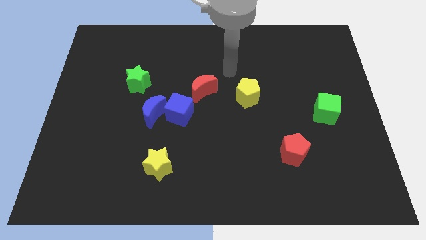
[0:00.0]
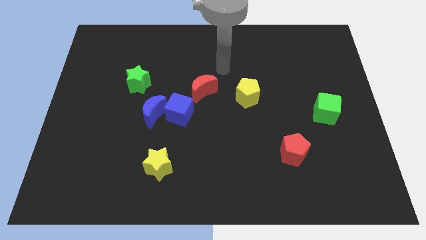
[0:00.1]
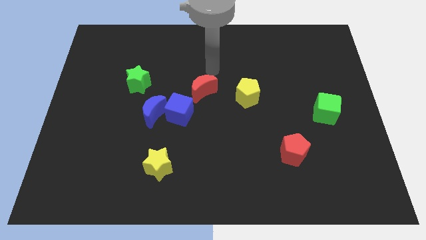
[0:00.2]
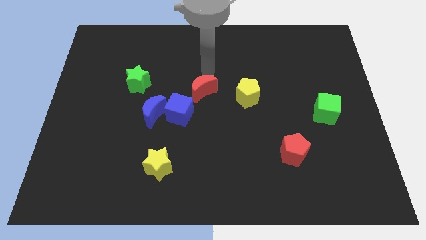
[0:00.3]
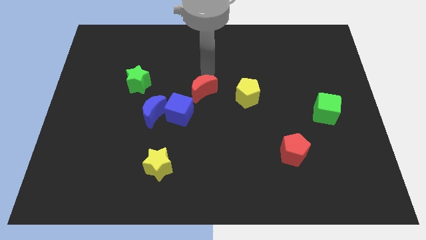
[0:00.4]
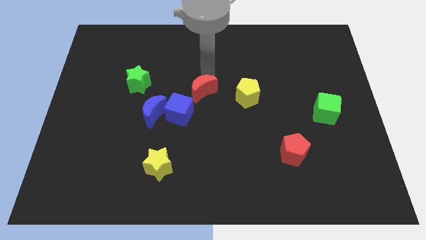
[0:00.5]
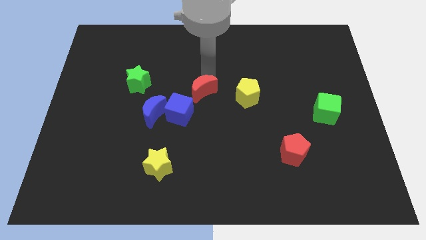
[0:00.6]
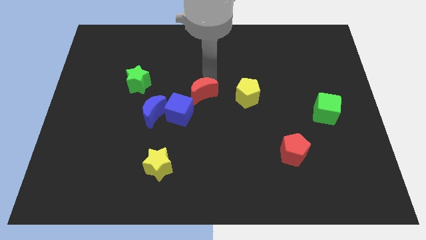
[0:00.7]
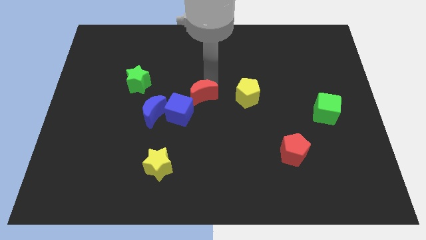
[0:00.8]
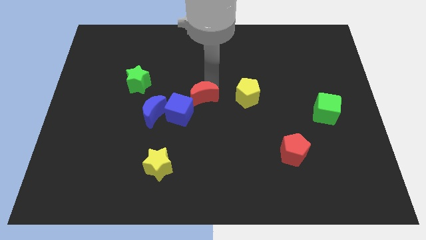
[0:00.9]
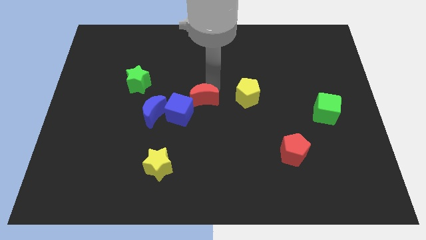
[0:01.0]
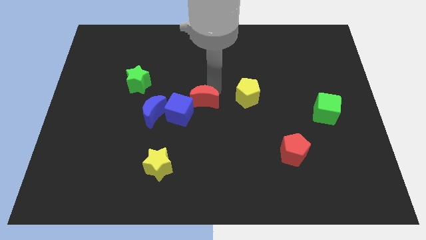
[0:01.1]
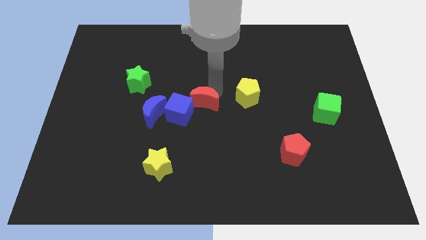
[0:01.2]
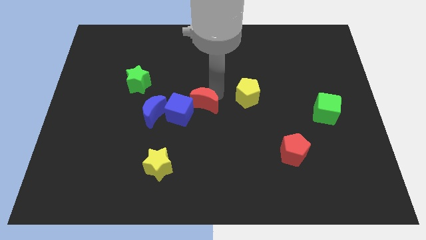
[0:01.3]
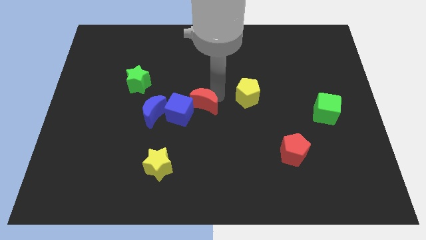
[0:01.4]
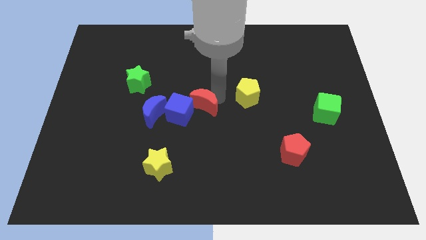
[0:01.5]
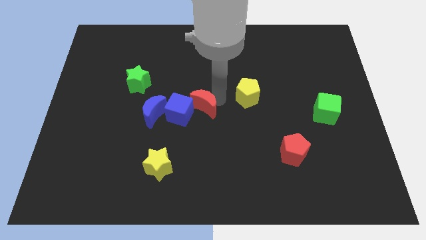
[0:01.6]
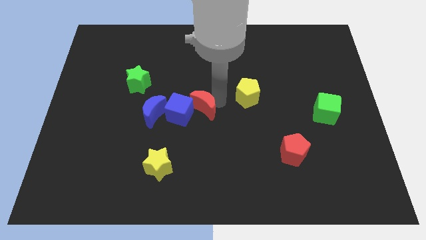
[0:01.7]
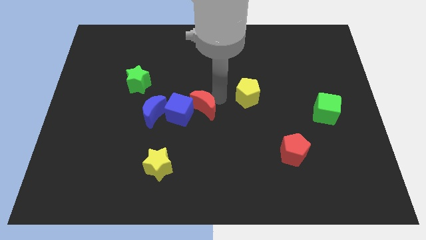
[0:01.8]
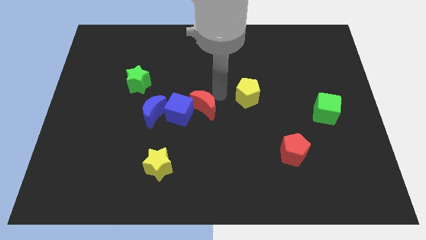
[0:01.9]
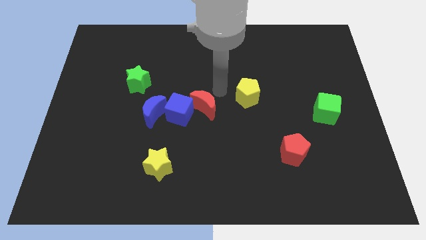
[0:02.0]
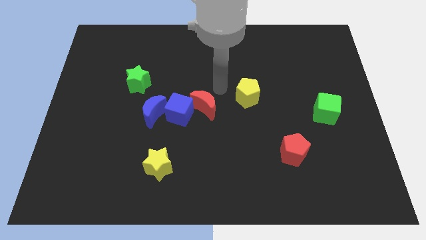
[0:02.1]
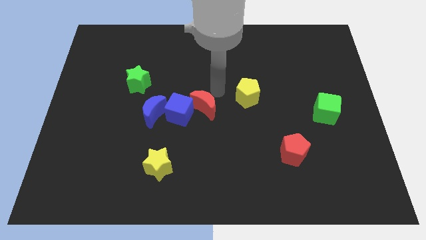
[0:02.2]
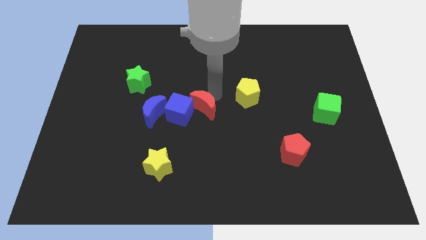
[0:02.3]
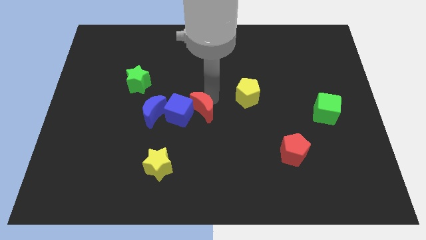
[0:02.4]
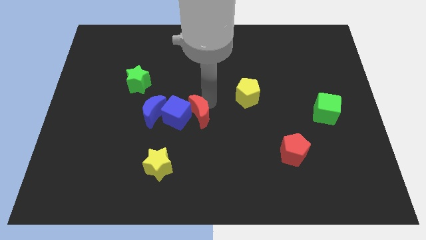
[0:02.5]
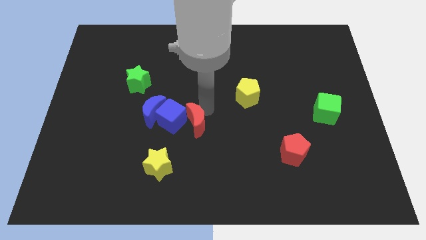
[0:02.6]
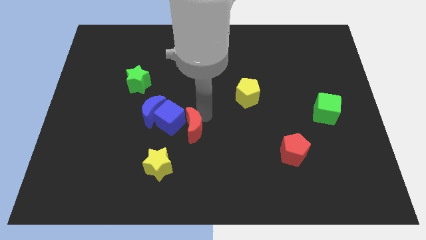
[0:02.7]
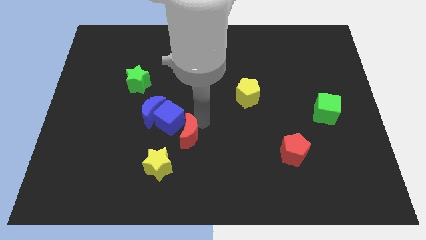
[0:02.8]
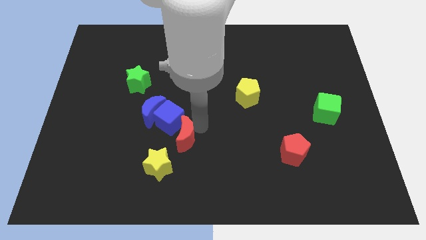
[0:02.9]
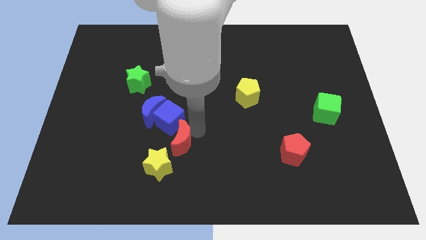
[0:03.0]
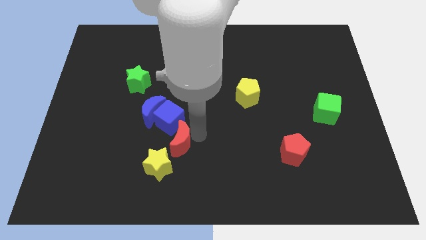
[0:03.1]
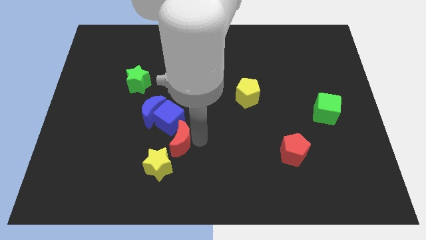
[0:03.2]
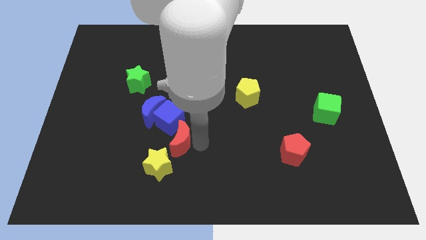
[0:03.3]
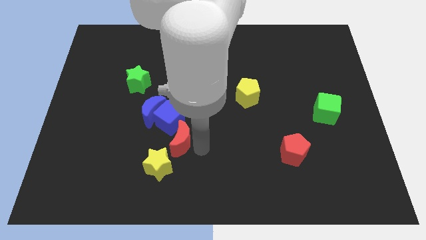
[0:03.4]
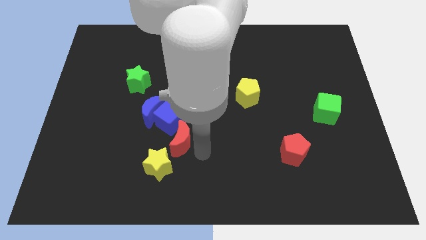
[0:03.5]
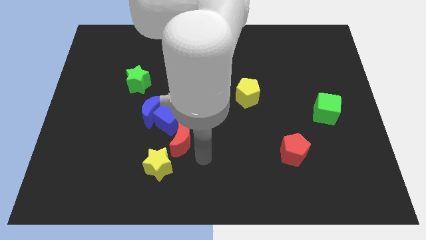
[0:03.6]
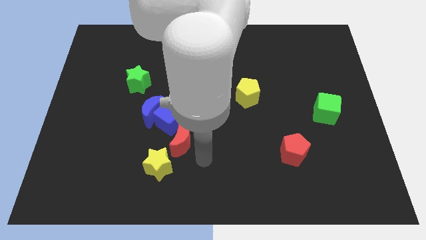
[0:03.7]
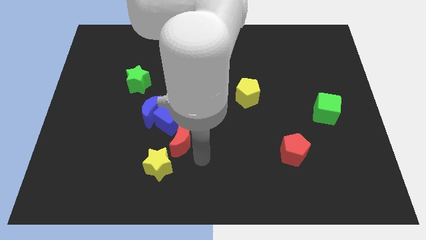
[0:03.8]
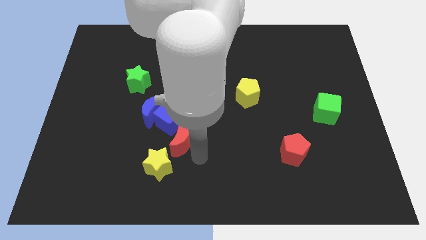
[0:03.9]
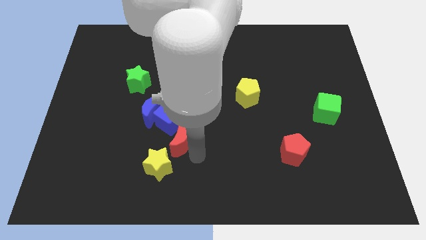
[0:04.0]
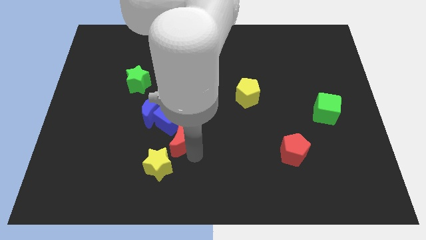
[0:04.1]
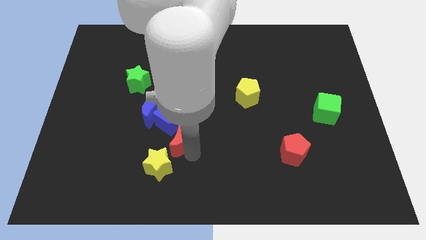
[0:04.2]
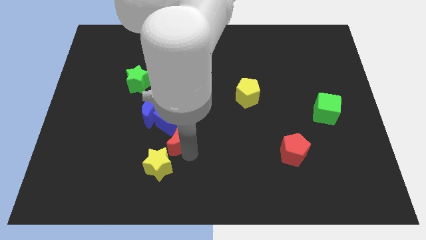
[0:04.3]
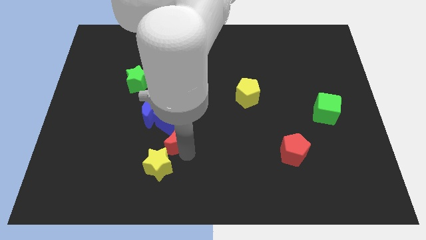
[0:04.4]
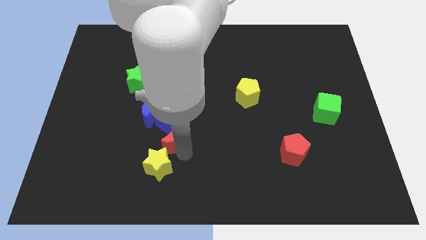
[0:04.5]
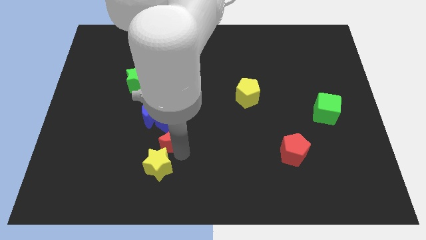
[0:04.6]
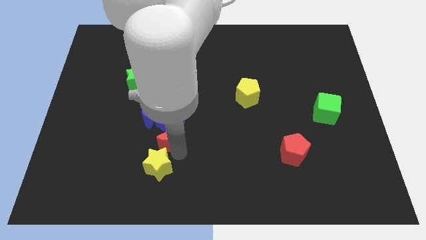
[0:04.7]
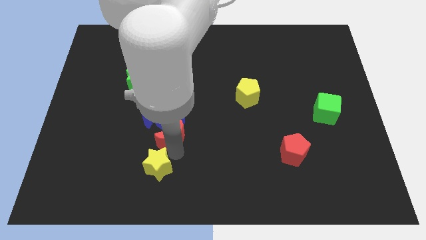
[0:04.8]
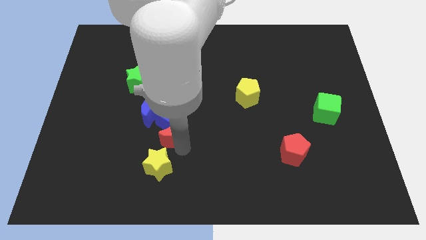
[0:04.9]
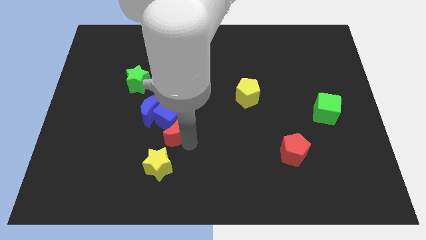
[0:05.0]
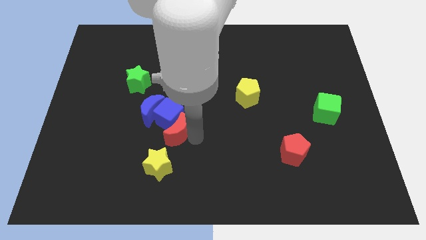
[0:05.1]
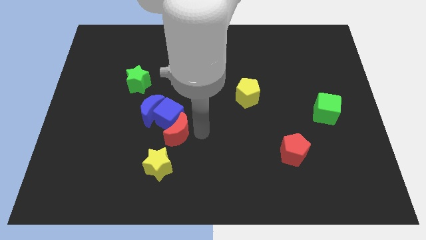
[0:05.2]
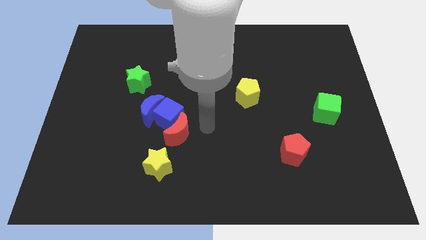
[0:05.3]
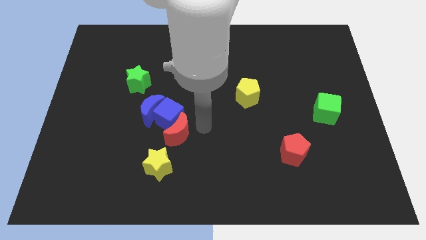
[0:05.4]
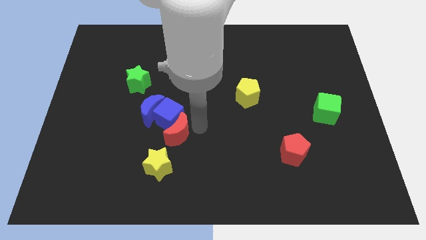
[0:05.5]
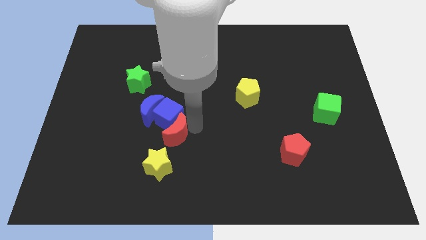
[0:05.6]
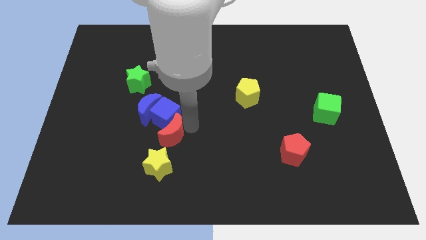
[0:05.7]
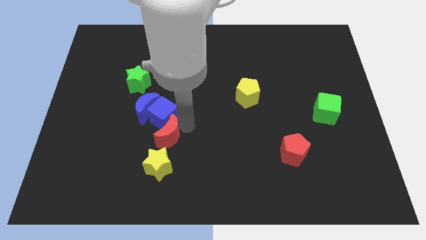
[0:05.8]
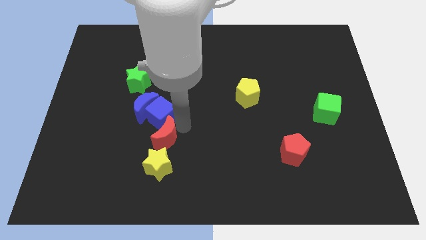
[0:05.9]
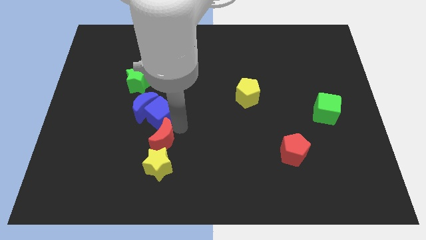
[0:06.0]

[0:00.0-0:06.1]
push the red moon to the top left side of the yellow star

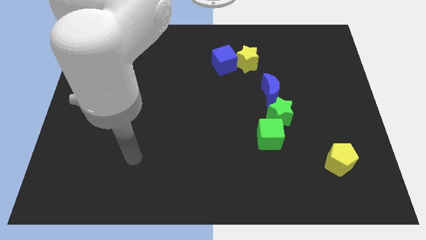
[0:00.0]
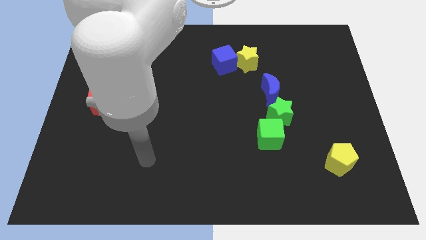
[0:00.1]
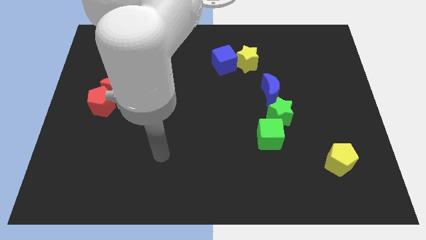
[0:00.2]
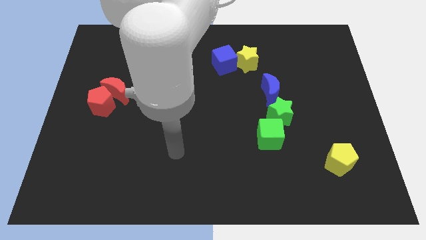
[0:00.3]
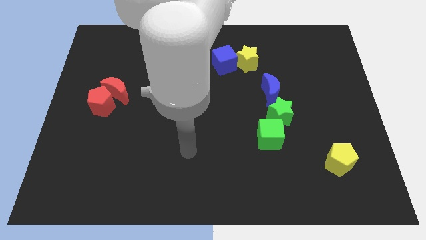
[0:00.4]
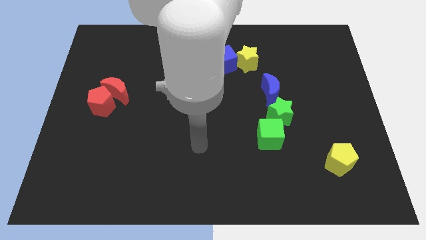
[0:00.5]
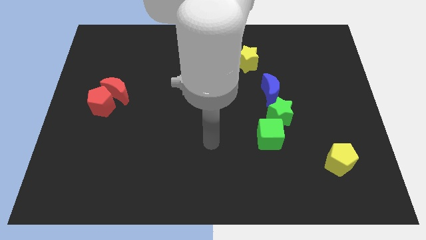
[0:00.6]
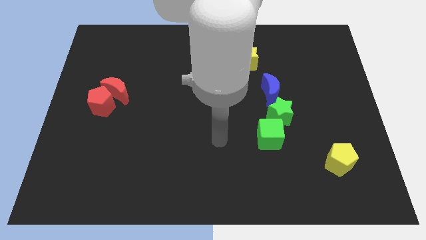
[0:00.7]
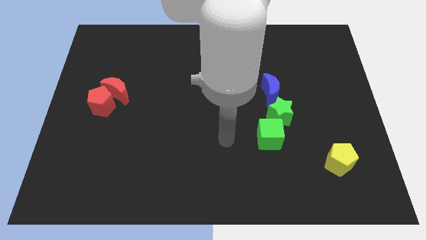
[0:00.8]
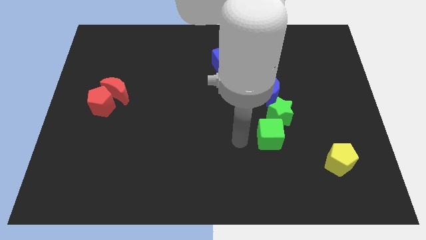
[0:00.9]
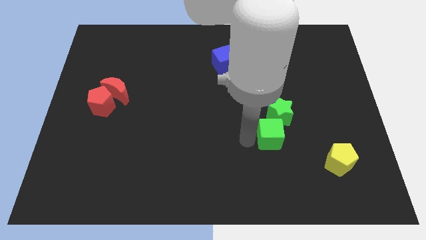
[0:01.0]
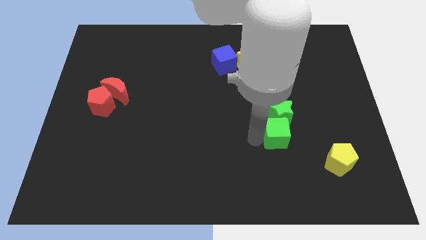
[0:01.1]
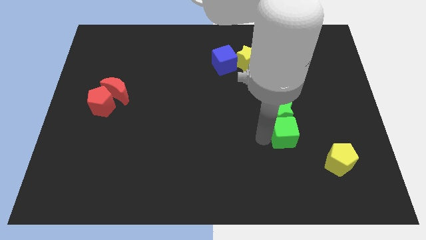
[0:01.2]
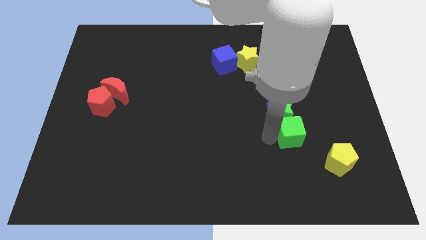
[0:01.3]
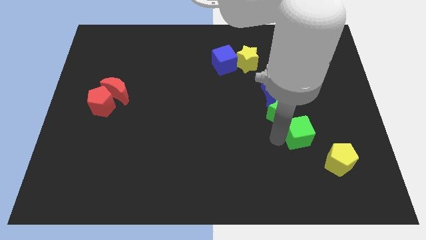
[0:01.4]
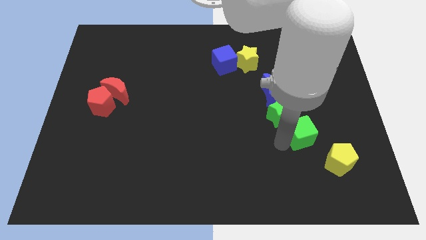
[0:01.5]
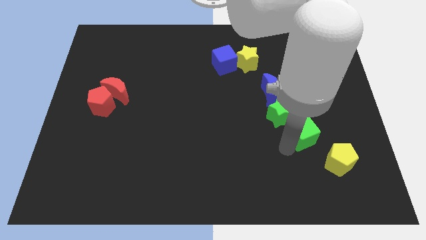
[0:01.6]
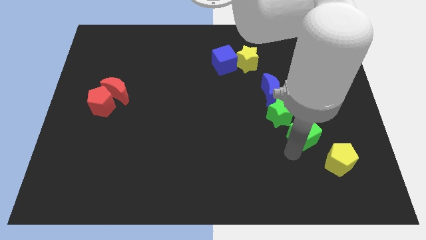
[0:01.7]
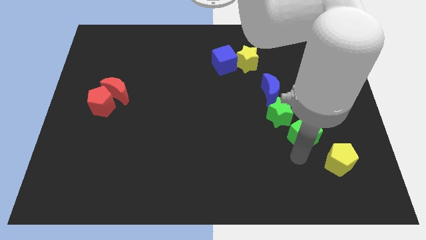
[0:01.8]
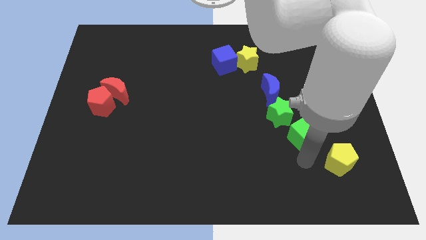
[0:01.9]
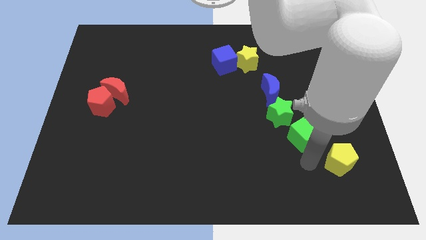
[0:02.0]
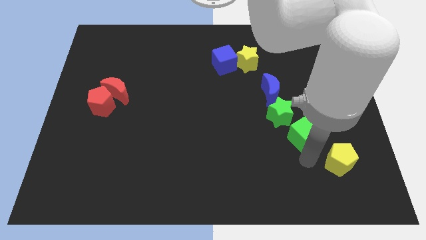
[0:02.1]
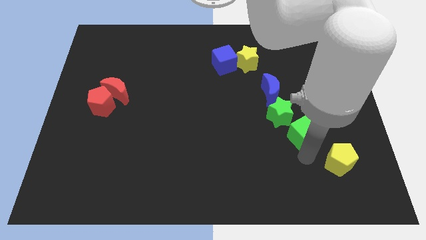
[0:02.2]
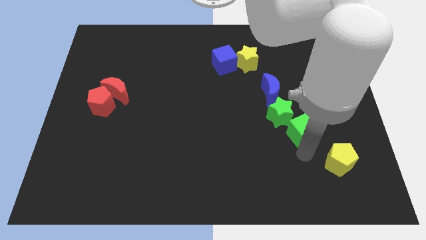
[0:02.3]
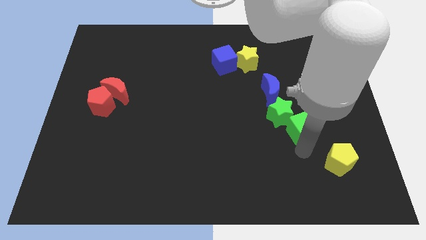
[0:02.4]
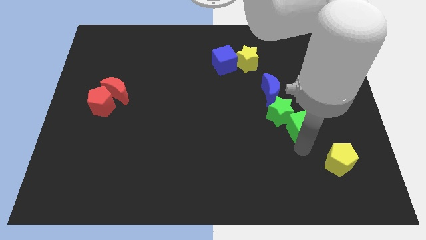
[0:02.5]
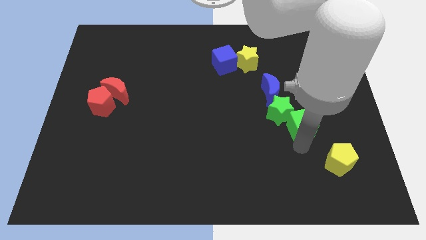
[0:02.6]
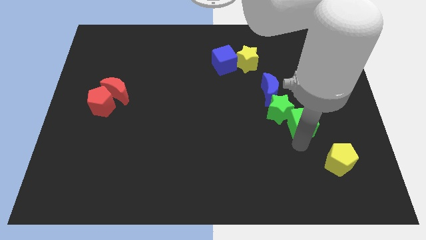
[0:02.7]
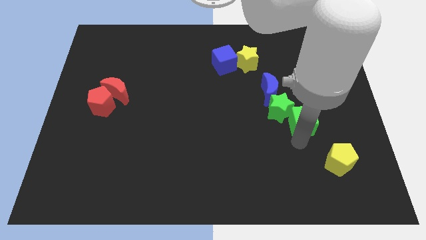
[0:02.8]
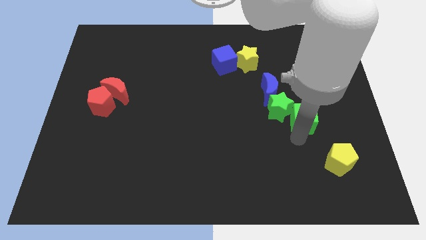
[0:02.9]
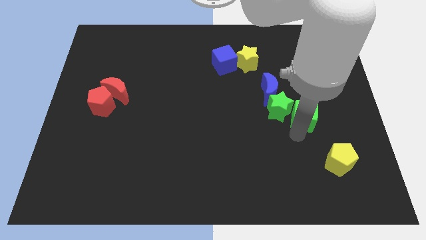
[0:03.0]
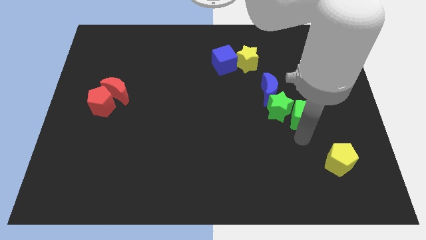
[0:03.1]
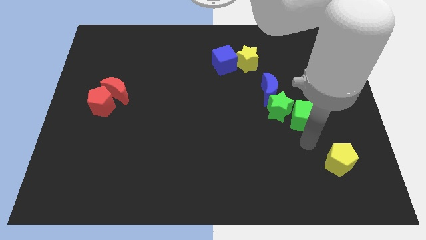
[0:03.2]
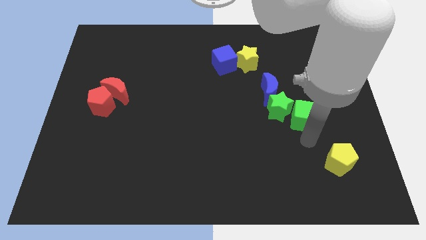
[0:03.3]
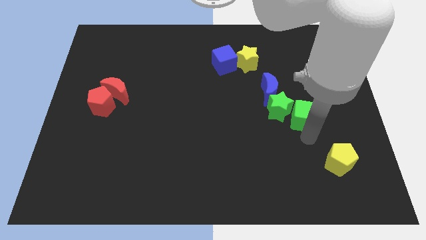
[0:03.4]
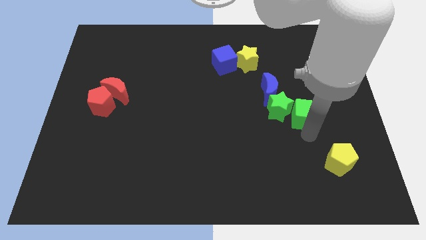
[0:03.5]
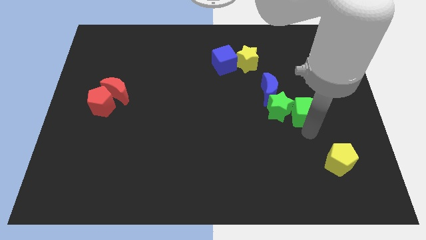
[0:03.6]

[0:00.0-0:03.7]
push the green cube diagonally up and to the right of the green star
